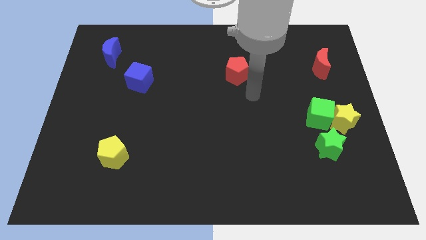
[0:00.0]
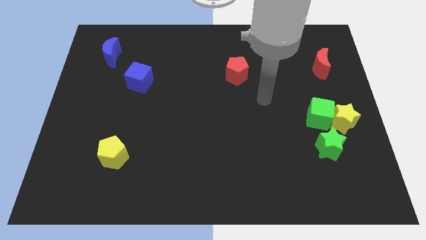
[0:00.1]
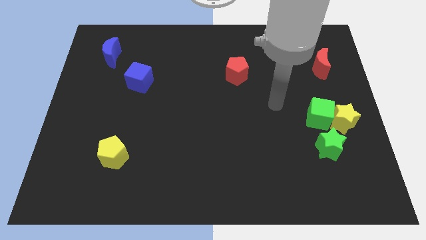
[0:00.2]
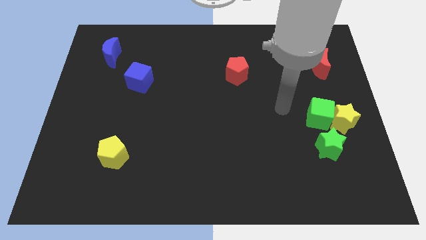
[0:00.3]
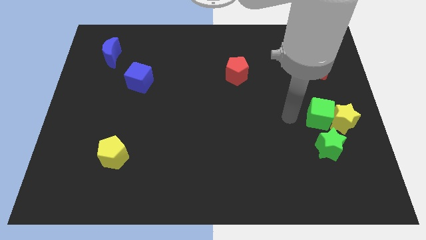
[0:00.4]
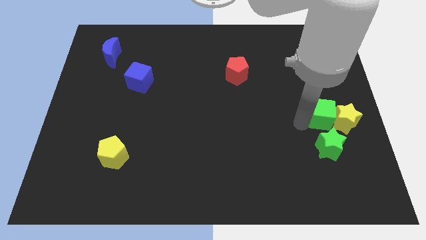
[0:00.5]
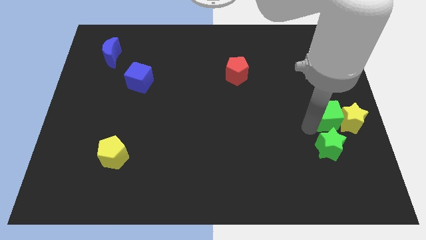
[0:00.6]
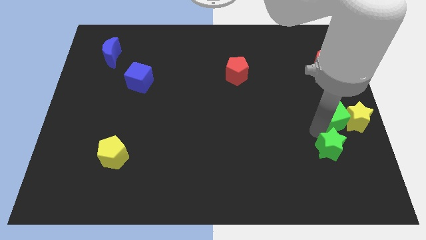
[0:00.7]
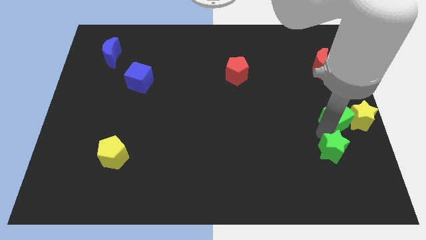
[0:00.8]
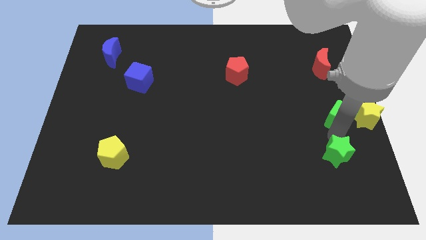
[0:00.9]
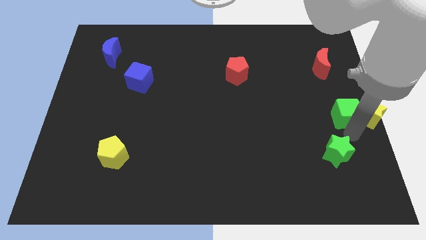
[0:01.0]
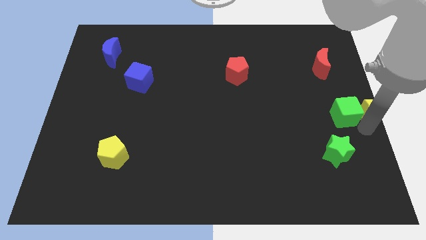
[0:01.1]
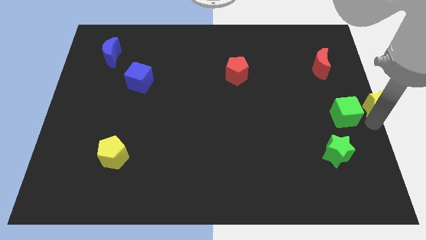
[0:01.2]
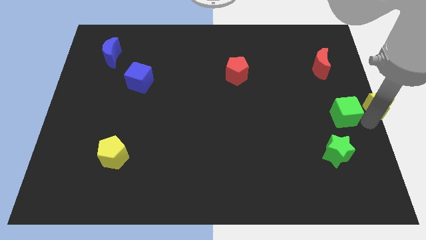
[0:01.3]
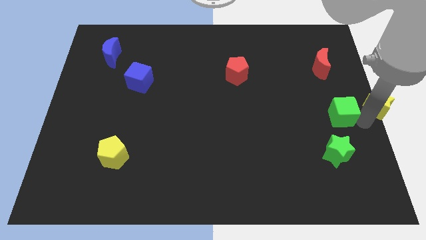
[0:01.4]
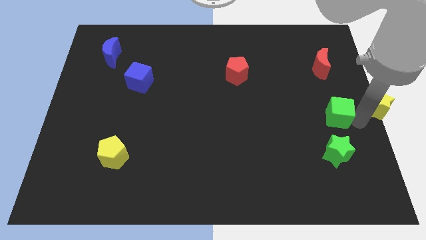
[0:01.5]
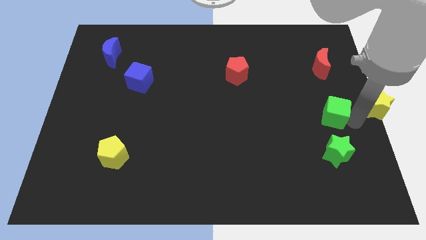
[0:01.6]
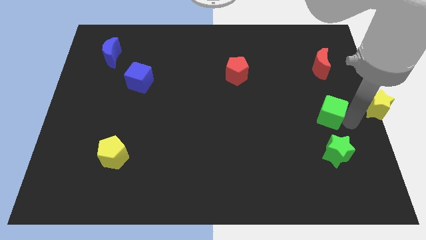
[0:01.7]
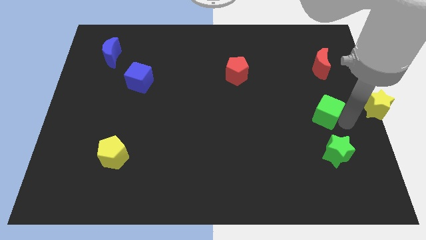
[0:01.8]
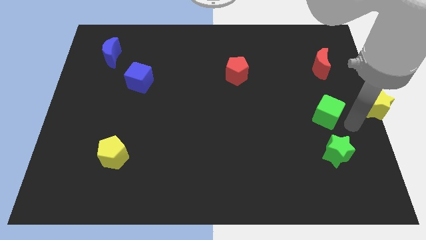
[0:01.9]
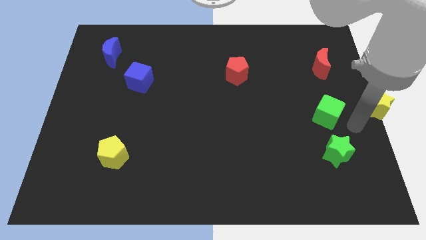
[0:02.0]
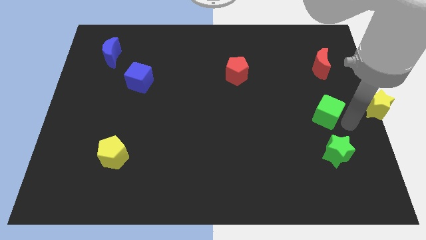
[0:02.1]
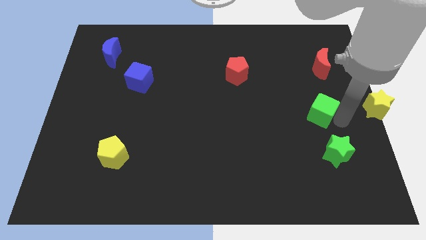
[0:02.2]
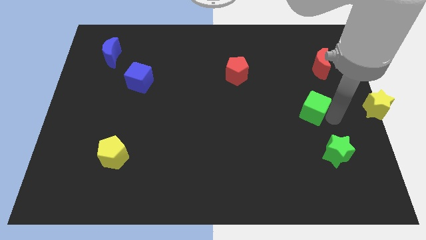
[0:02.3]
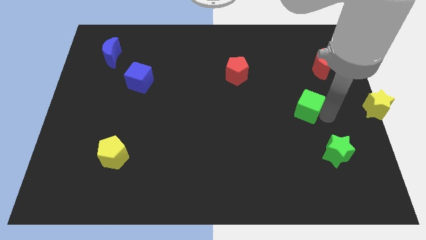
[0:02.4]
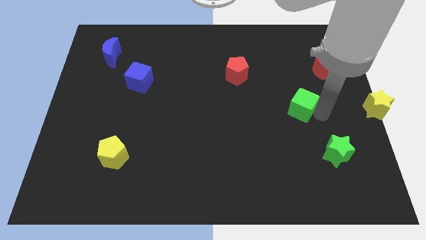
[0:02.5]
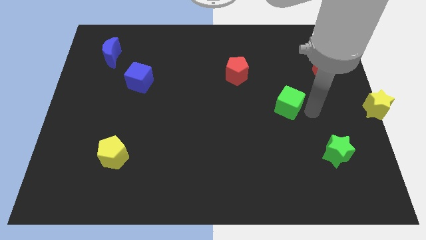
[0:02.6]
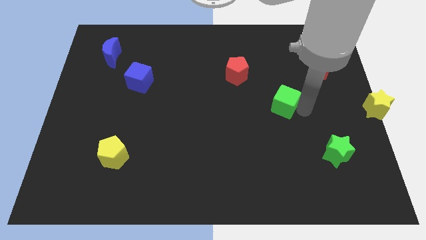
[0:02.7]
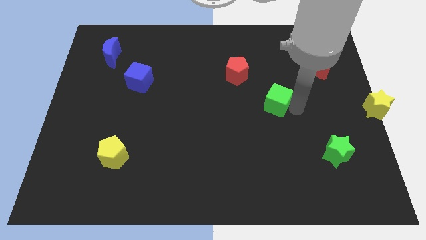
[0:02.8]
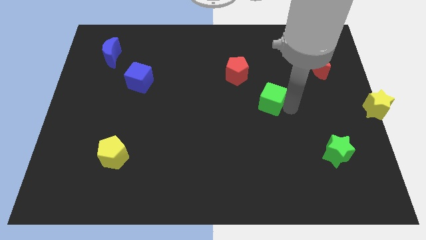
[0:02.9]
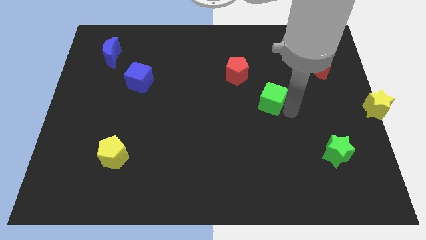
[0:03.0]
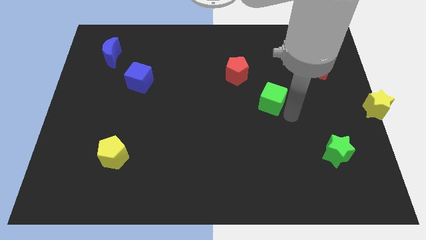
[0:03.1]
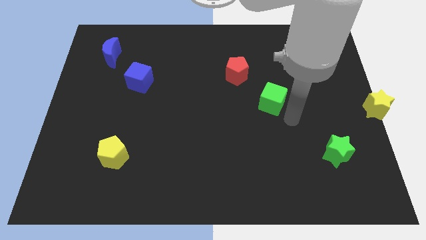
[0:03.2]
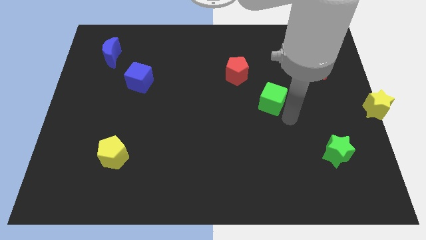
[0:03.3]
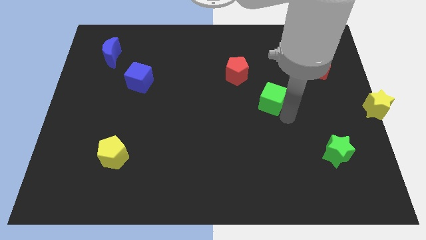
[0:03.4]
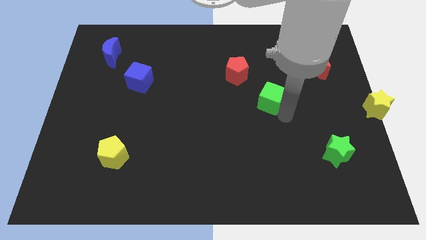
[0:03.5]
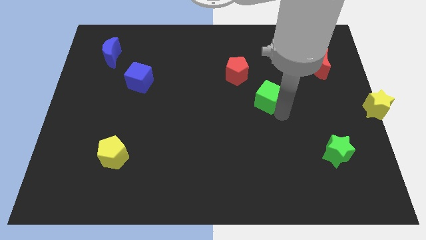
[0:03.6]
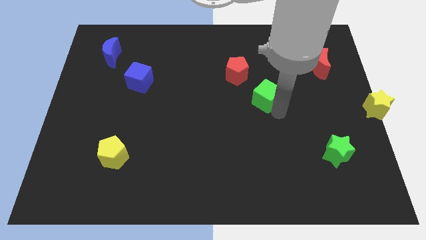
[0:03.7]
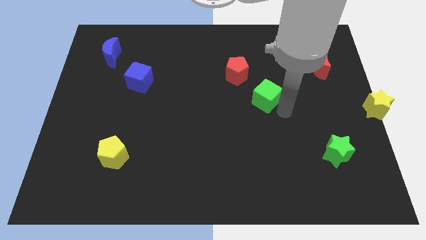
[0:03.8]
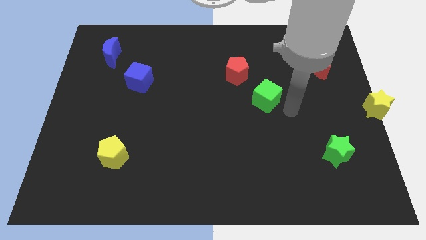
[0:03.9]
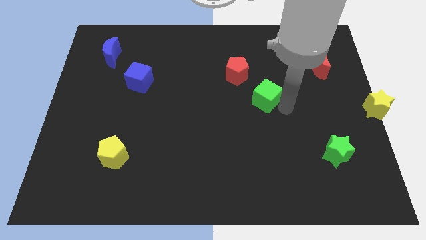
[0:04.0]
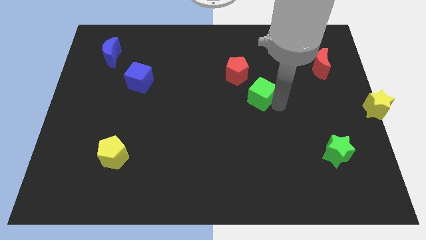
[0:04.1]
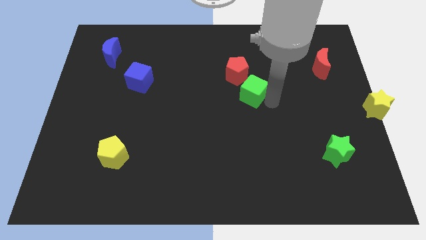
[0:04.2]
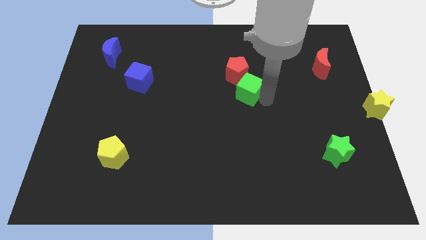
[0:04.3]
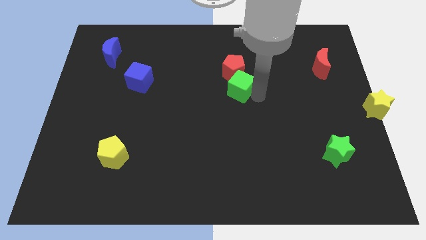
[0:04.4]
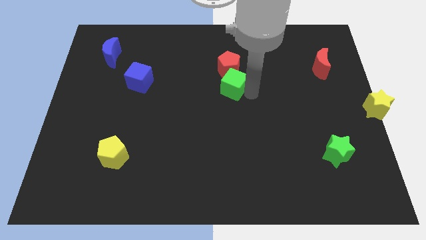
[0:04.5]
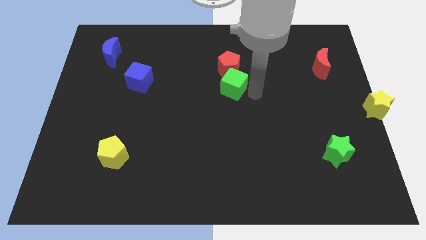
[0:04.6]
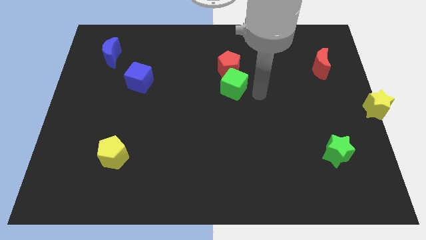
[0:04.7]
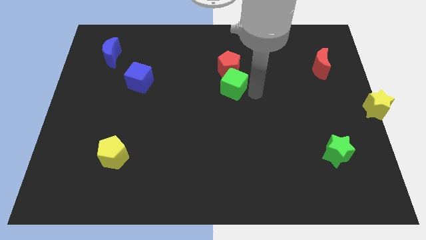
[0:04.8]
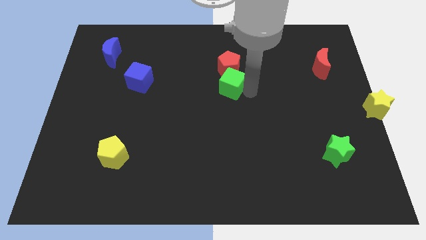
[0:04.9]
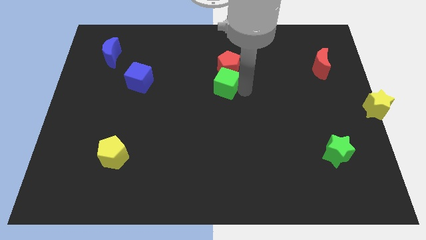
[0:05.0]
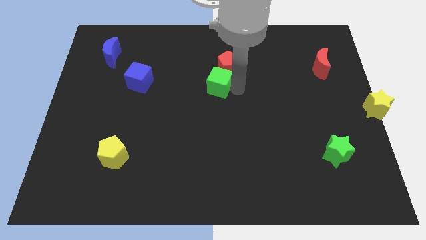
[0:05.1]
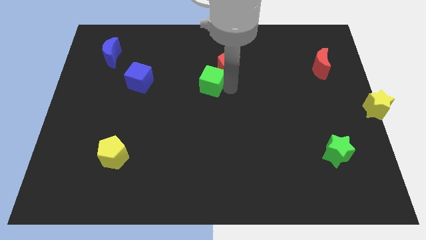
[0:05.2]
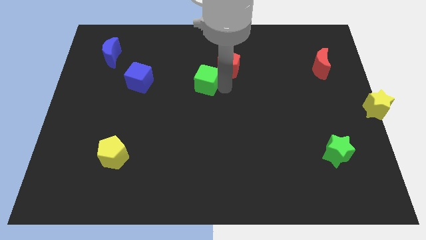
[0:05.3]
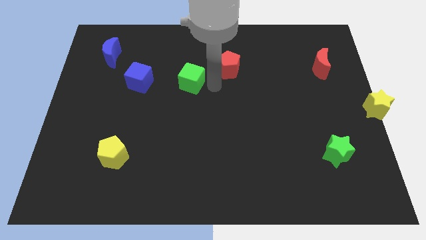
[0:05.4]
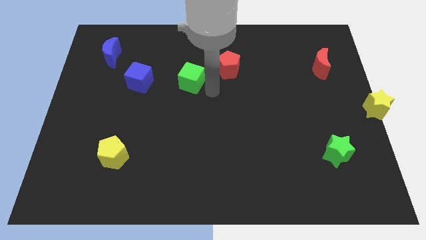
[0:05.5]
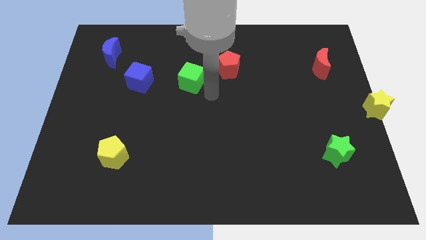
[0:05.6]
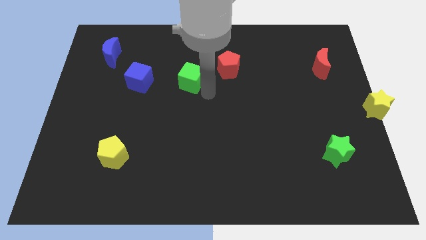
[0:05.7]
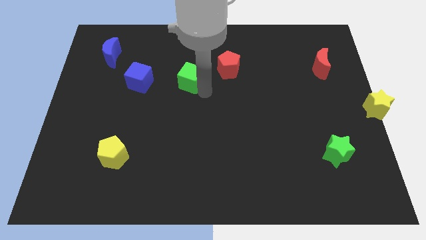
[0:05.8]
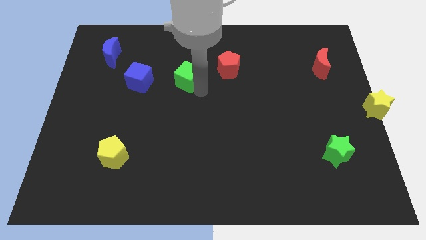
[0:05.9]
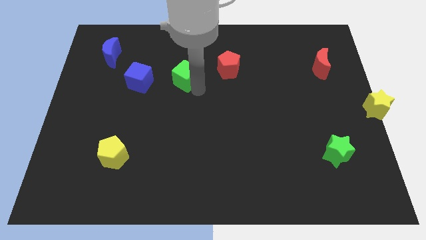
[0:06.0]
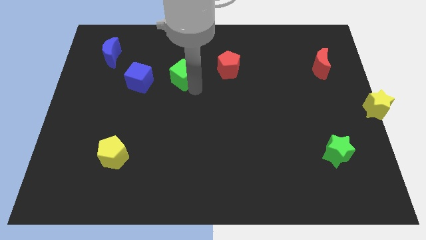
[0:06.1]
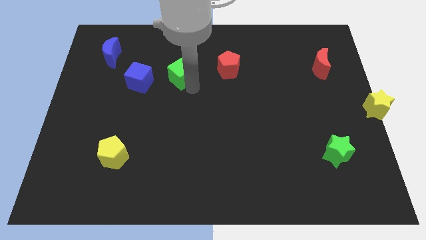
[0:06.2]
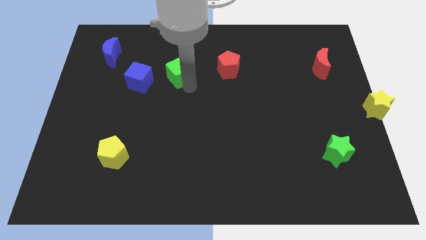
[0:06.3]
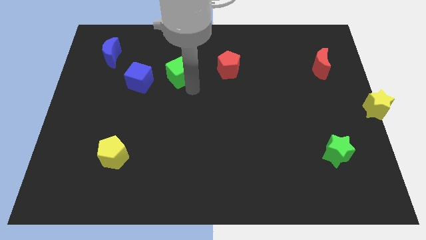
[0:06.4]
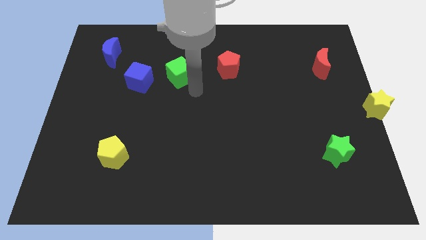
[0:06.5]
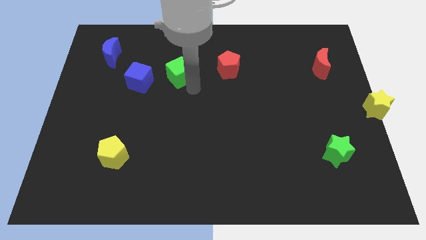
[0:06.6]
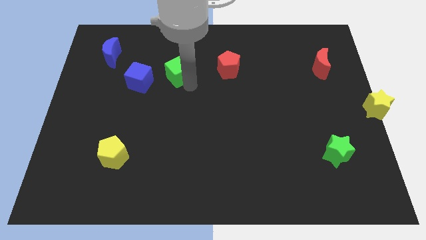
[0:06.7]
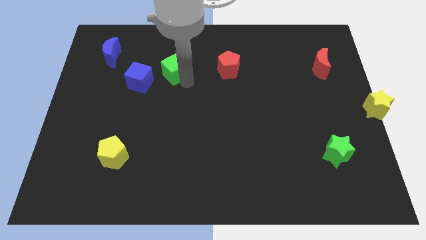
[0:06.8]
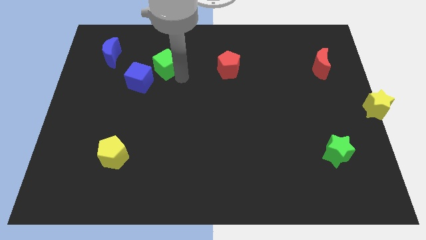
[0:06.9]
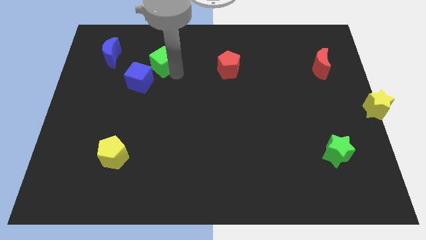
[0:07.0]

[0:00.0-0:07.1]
push the green cube right of the blue moon

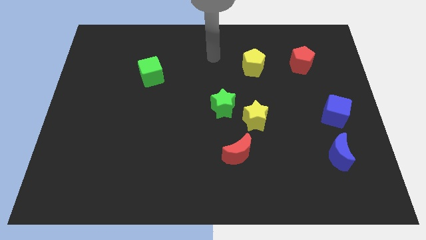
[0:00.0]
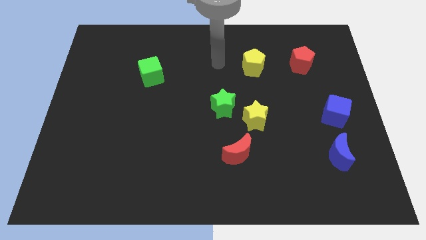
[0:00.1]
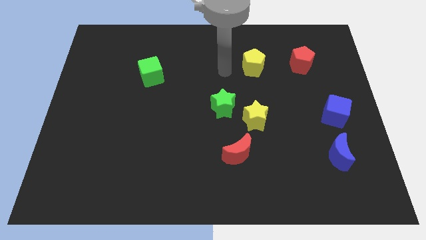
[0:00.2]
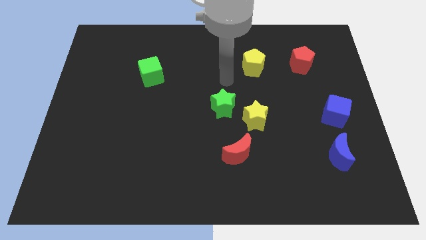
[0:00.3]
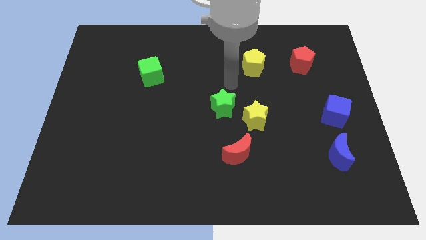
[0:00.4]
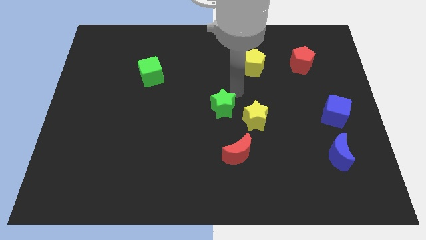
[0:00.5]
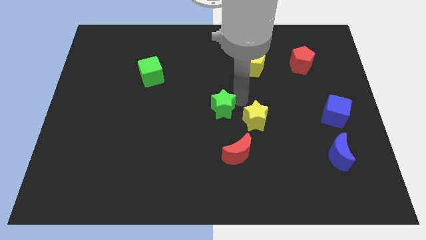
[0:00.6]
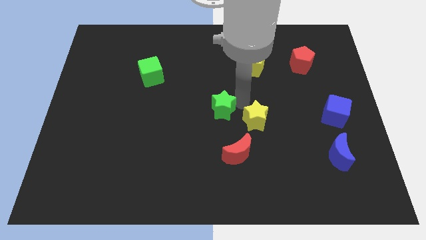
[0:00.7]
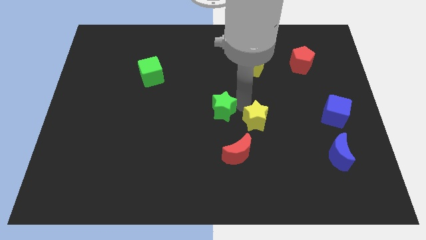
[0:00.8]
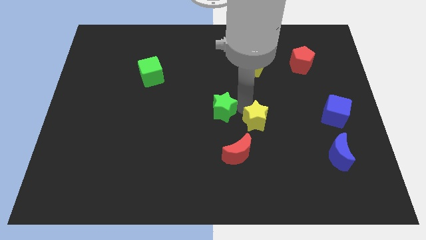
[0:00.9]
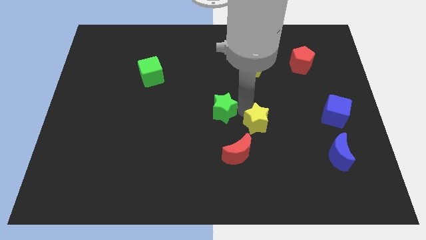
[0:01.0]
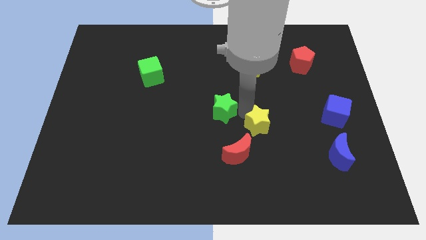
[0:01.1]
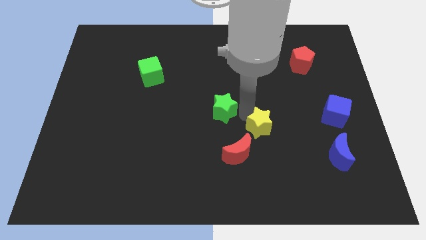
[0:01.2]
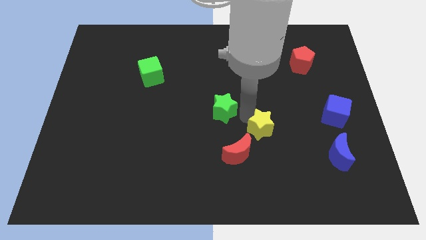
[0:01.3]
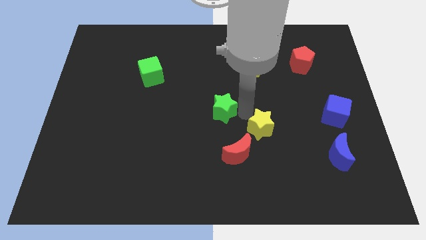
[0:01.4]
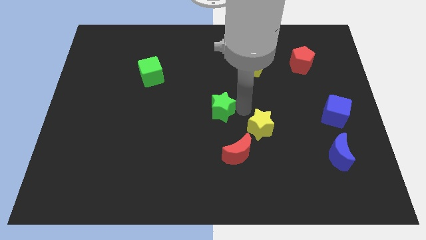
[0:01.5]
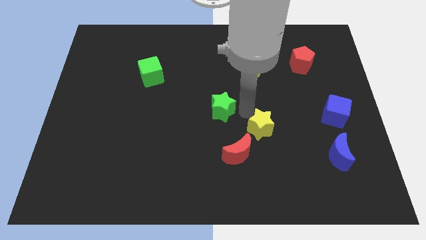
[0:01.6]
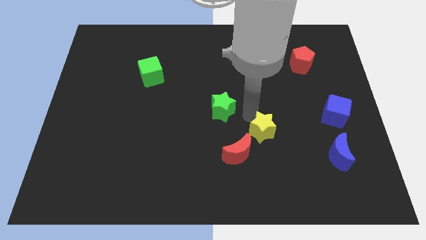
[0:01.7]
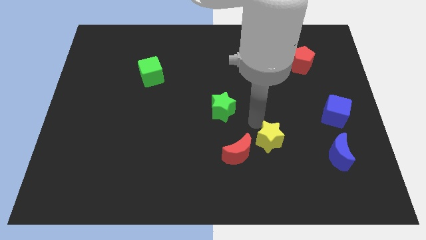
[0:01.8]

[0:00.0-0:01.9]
move the yellow star just left of the blue moon
